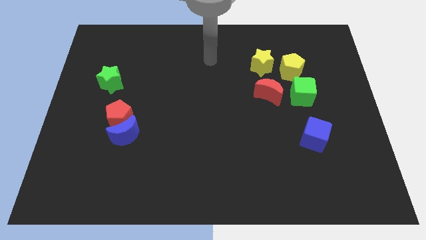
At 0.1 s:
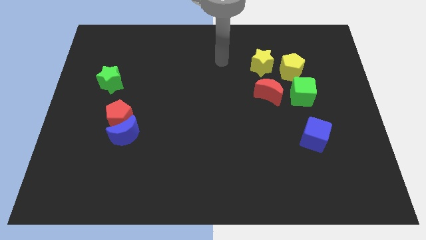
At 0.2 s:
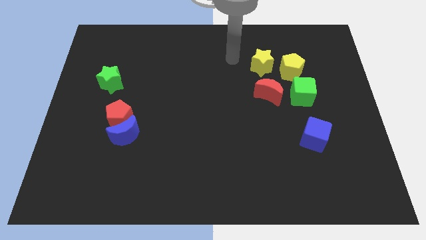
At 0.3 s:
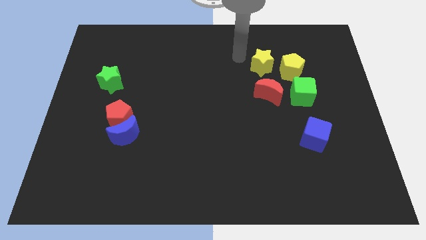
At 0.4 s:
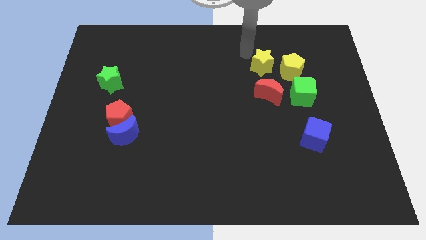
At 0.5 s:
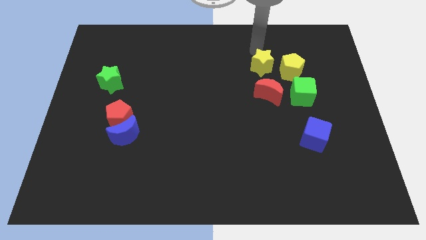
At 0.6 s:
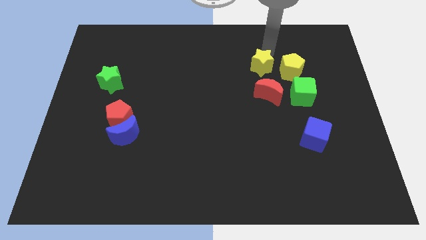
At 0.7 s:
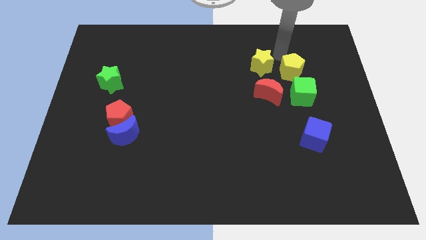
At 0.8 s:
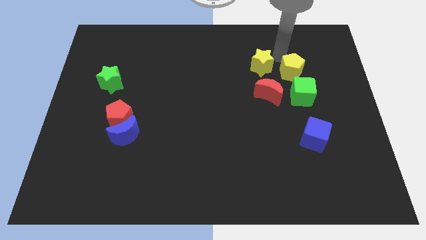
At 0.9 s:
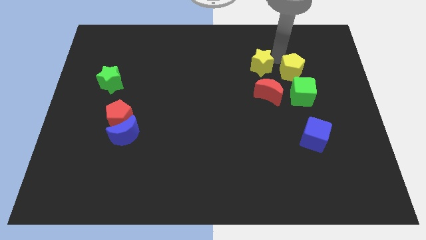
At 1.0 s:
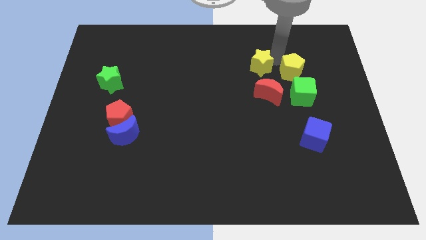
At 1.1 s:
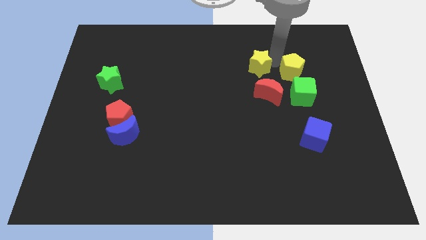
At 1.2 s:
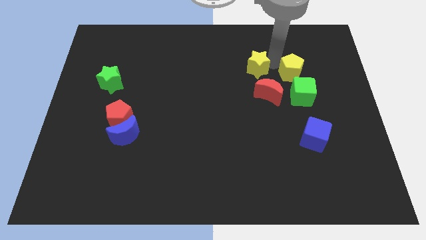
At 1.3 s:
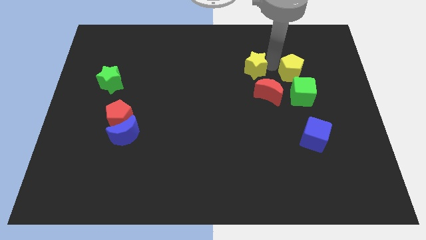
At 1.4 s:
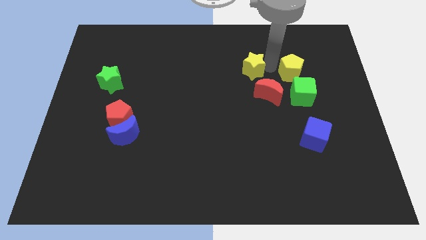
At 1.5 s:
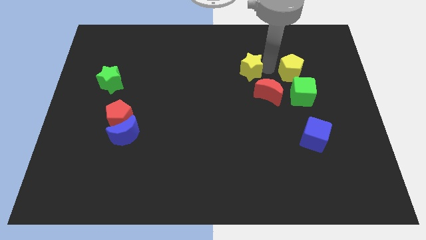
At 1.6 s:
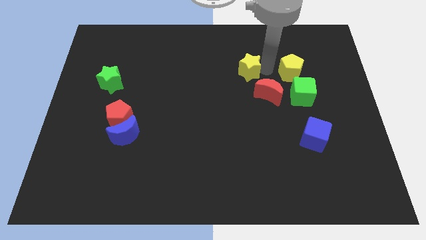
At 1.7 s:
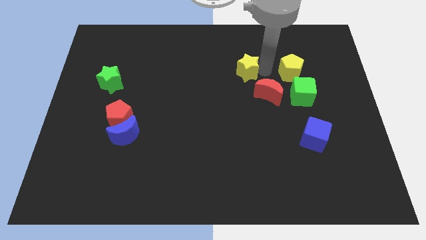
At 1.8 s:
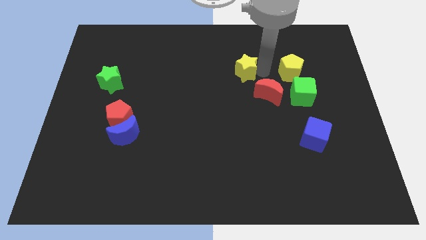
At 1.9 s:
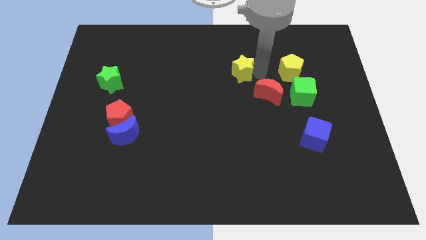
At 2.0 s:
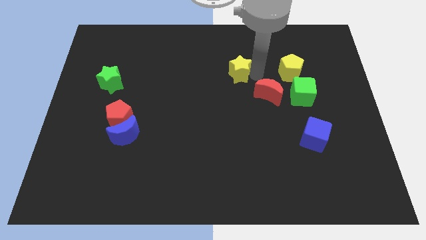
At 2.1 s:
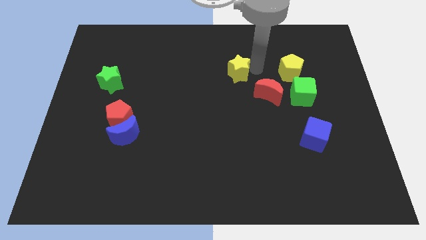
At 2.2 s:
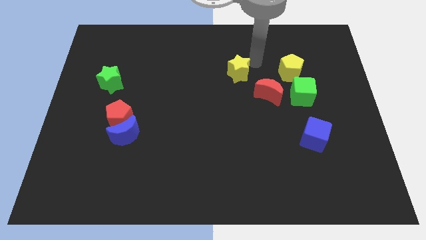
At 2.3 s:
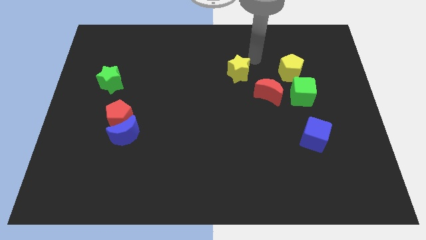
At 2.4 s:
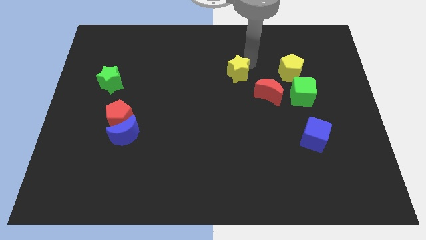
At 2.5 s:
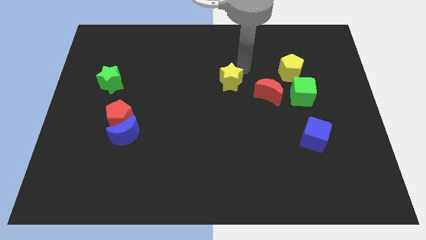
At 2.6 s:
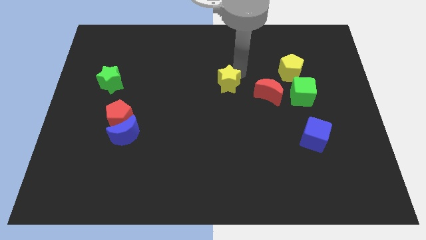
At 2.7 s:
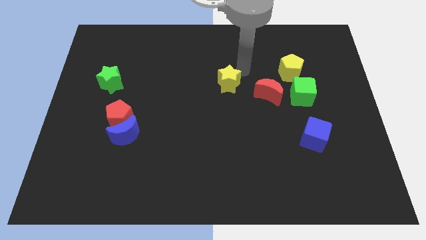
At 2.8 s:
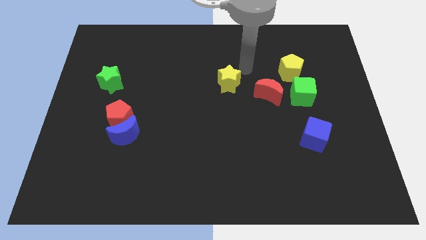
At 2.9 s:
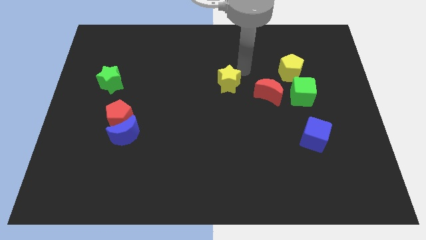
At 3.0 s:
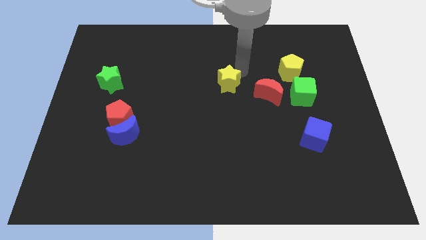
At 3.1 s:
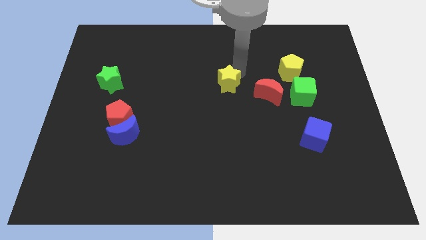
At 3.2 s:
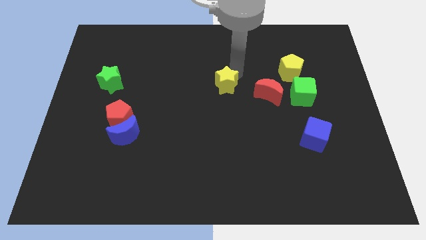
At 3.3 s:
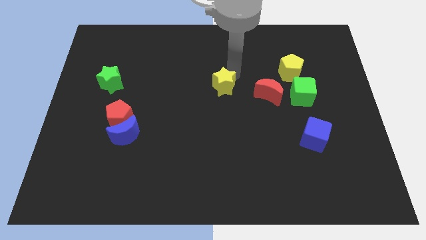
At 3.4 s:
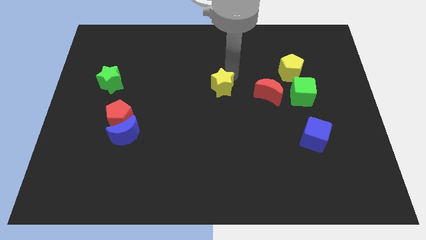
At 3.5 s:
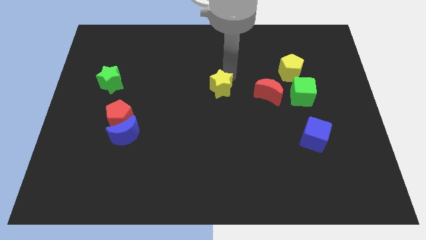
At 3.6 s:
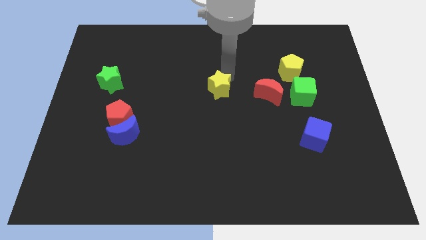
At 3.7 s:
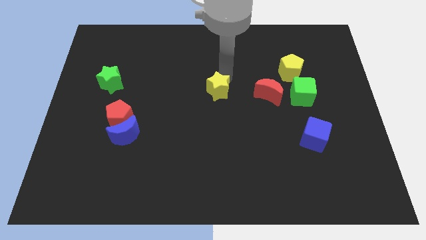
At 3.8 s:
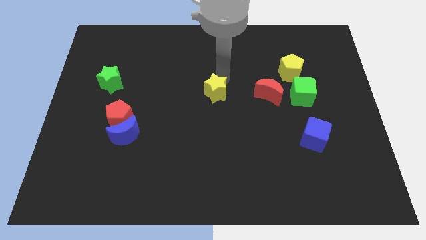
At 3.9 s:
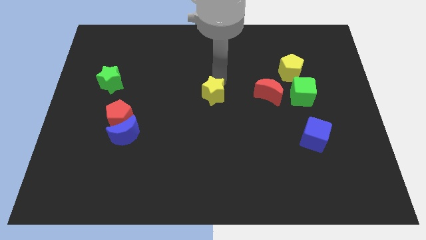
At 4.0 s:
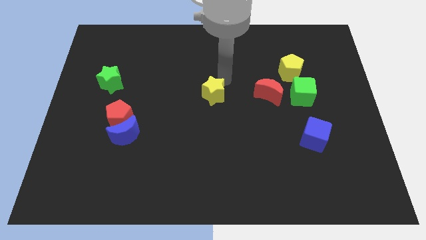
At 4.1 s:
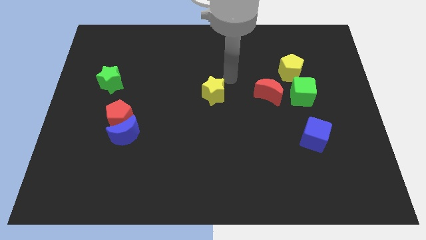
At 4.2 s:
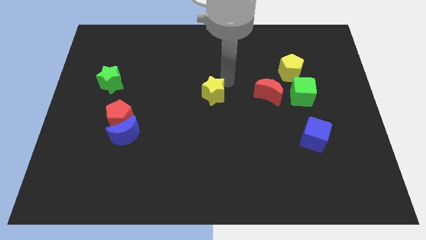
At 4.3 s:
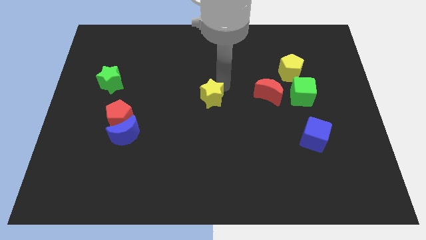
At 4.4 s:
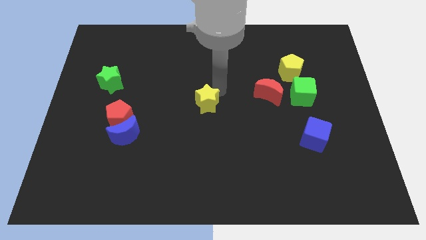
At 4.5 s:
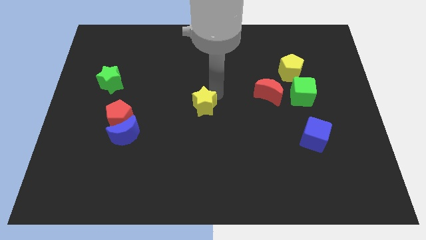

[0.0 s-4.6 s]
slide the yellow star down and left

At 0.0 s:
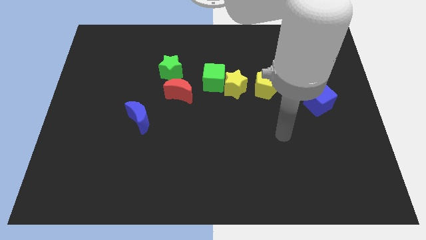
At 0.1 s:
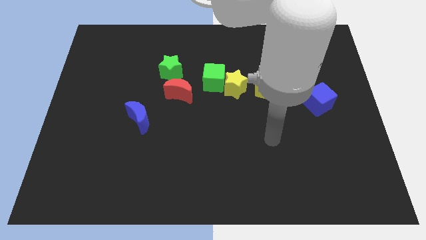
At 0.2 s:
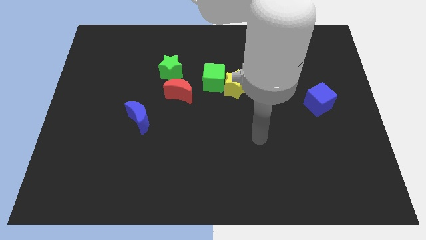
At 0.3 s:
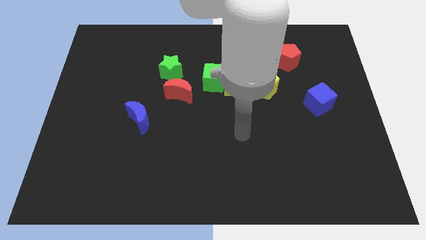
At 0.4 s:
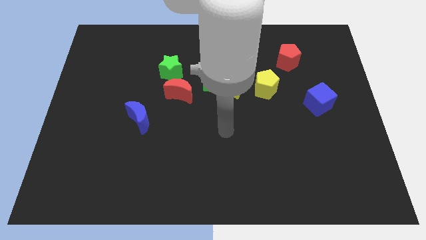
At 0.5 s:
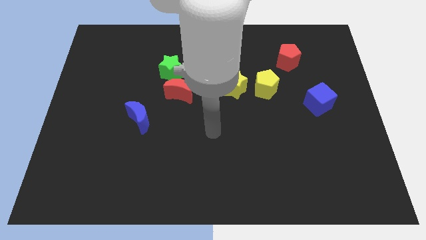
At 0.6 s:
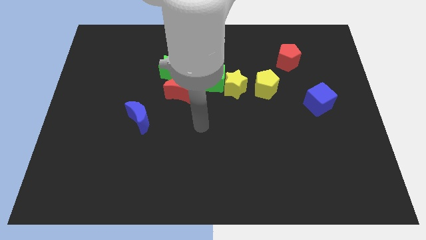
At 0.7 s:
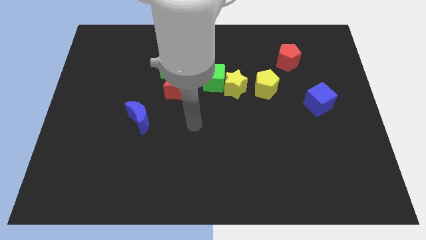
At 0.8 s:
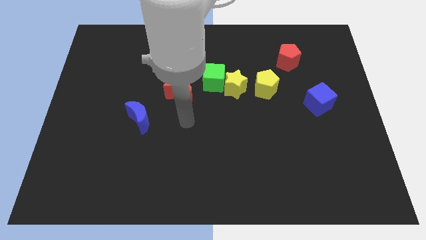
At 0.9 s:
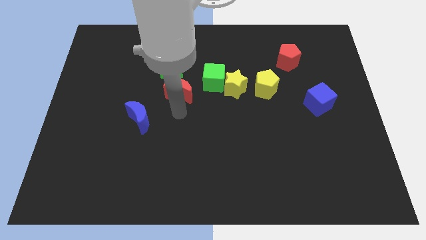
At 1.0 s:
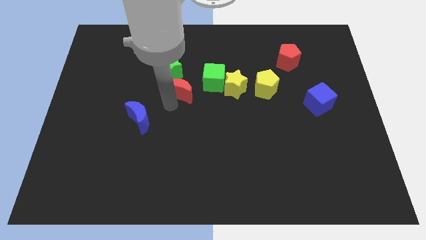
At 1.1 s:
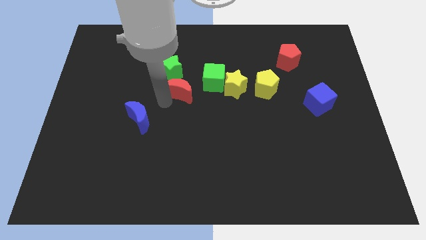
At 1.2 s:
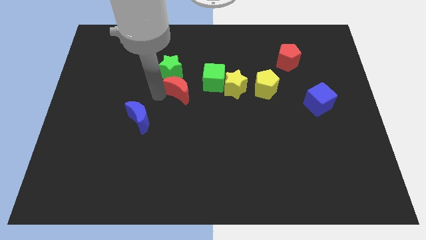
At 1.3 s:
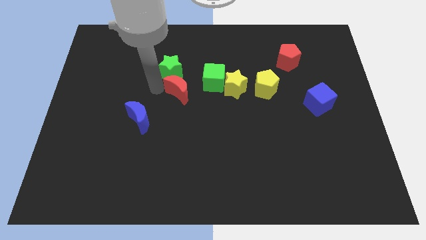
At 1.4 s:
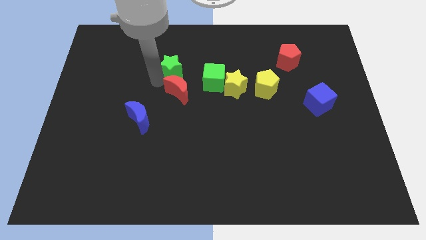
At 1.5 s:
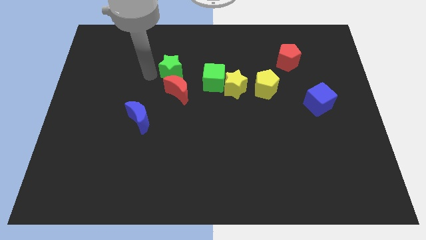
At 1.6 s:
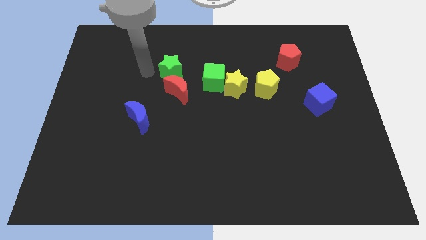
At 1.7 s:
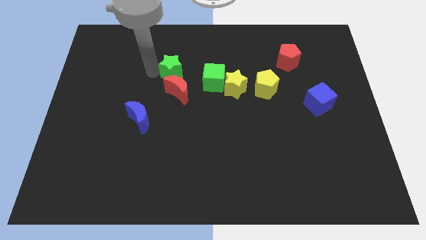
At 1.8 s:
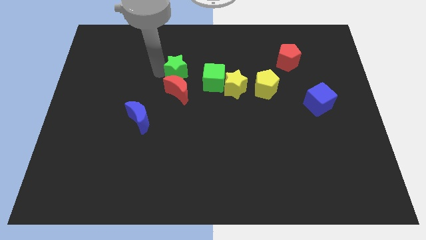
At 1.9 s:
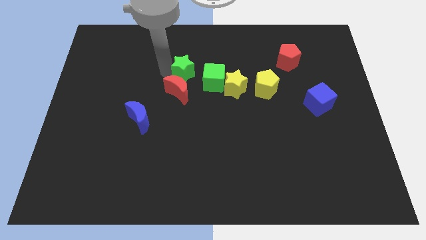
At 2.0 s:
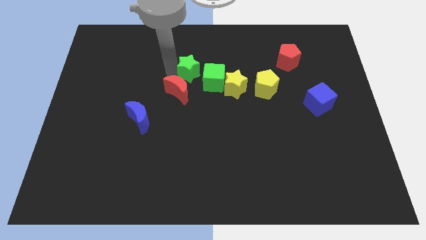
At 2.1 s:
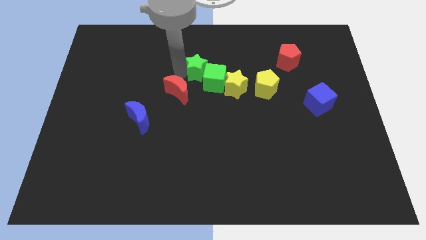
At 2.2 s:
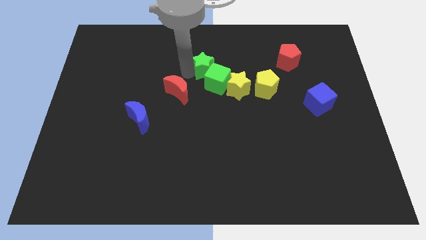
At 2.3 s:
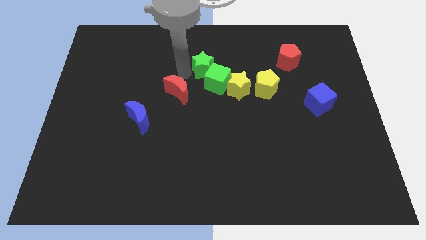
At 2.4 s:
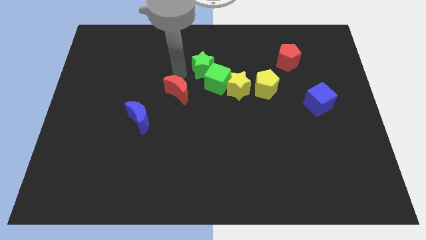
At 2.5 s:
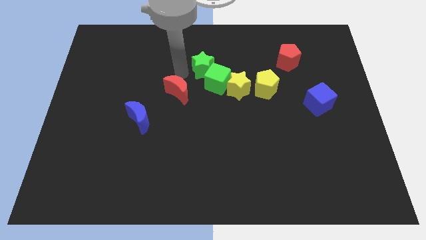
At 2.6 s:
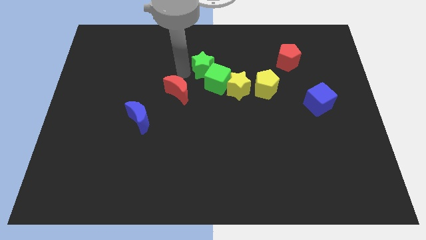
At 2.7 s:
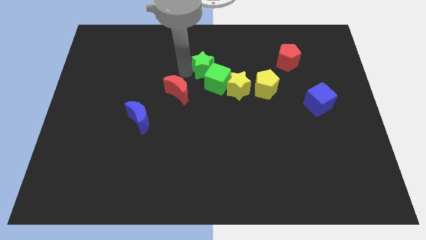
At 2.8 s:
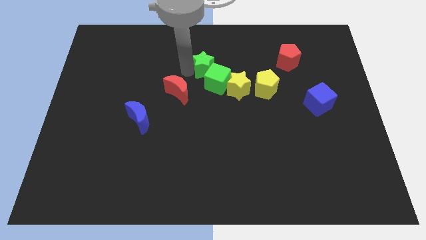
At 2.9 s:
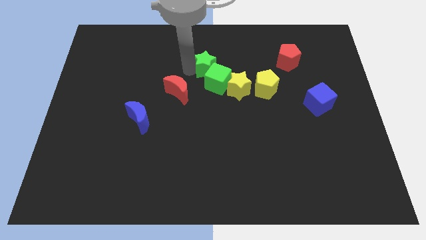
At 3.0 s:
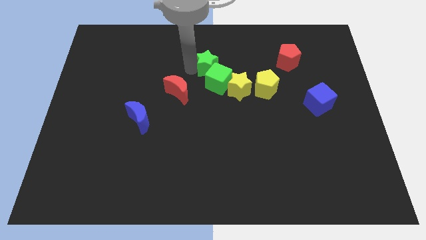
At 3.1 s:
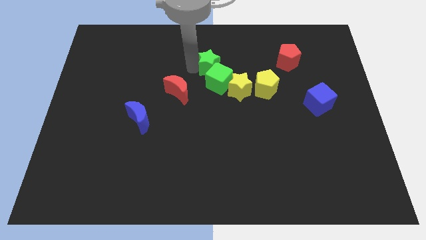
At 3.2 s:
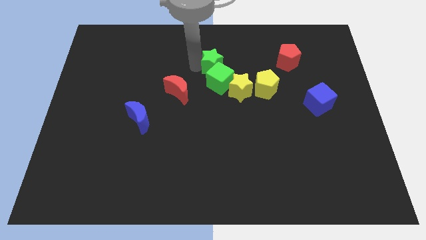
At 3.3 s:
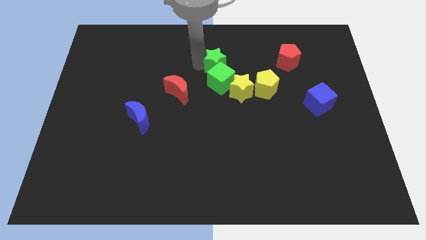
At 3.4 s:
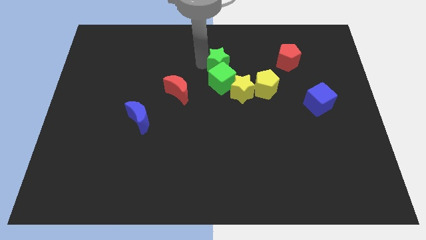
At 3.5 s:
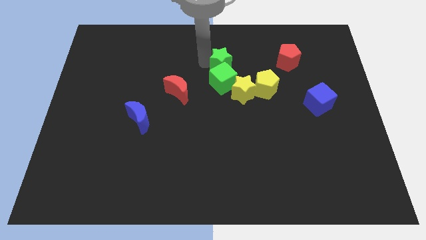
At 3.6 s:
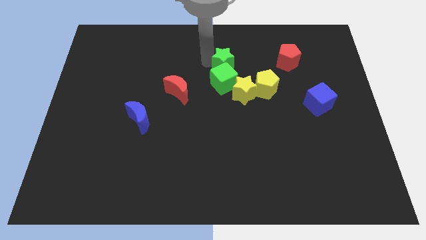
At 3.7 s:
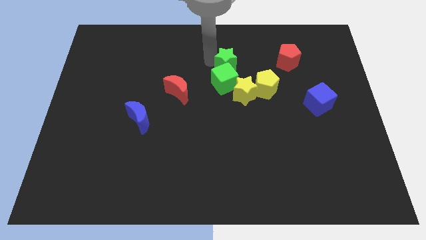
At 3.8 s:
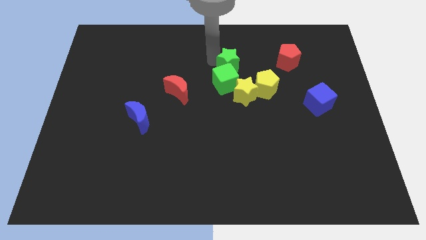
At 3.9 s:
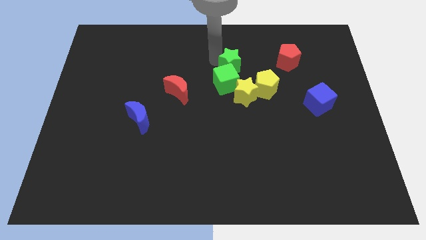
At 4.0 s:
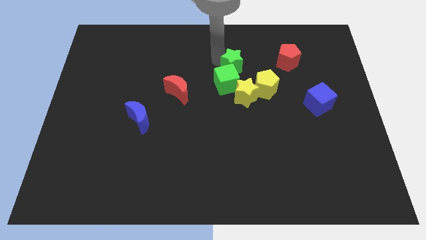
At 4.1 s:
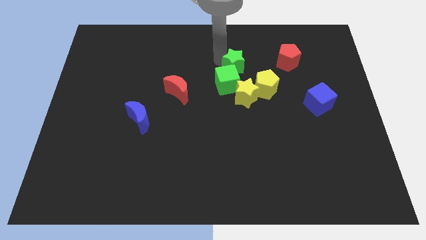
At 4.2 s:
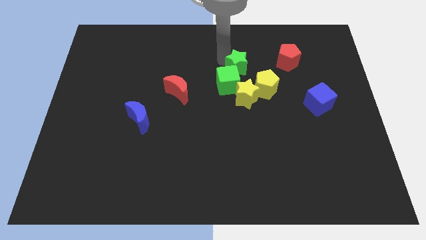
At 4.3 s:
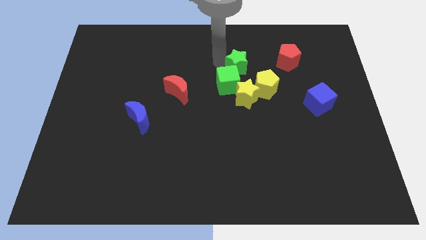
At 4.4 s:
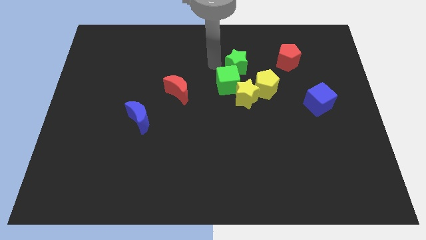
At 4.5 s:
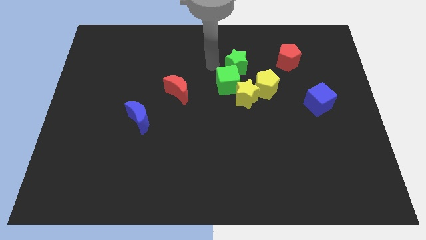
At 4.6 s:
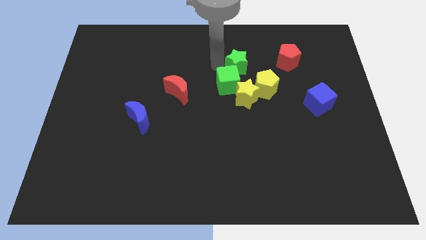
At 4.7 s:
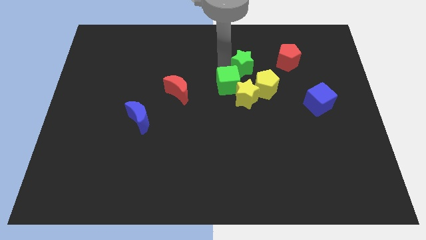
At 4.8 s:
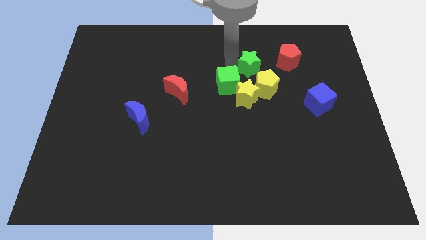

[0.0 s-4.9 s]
move the green star to the right
